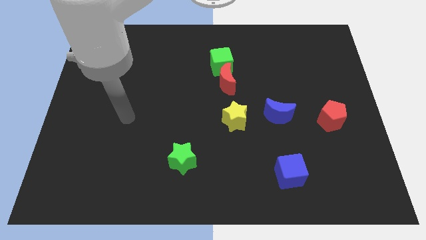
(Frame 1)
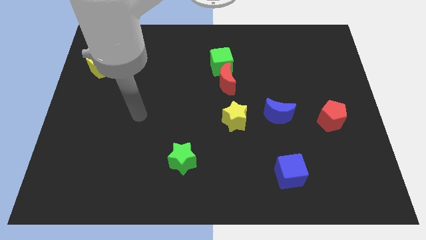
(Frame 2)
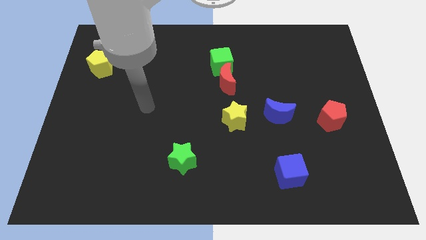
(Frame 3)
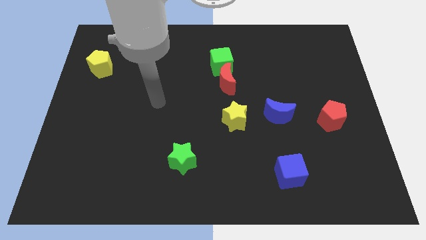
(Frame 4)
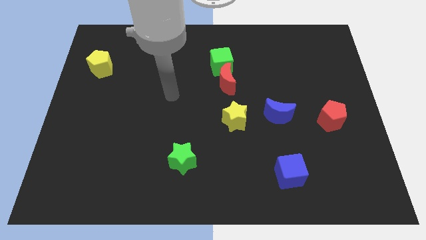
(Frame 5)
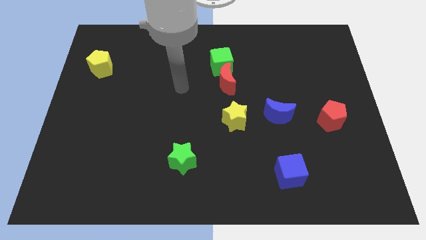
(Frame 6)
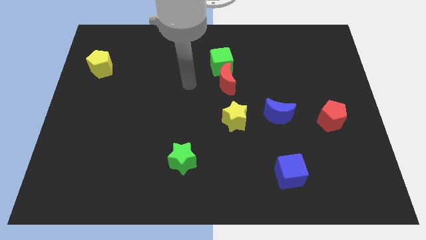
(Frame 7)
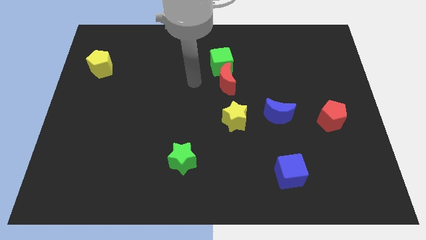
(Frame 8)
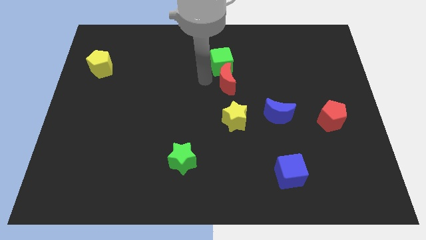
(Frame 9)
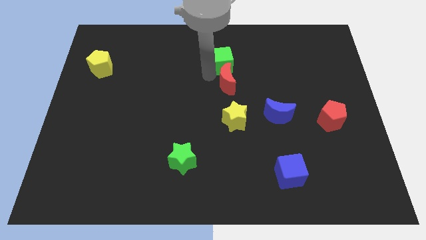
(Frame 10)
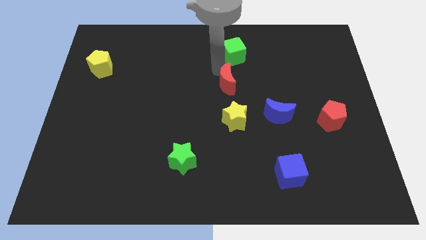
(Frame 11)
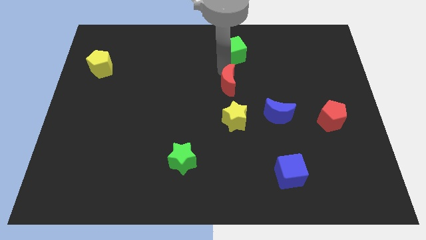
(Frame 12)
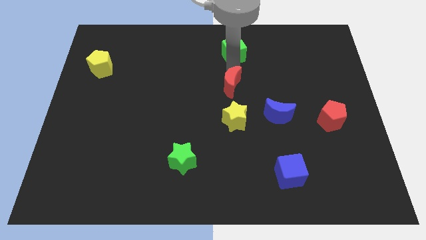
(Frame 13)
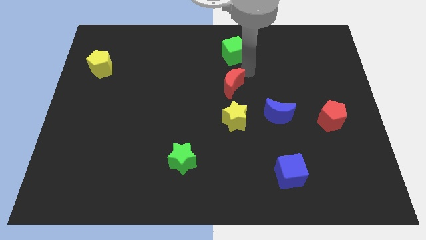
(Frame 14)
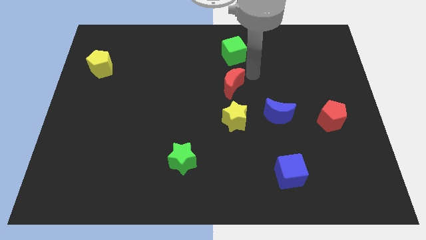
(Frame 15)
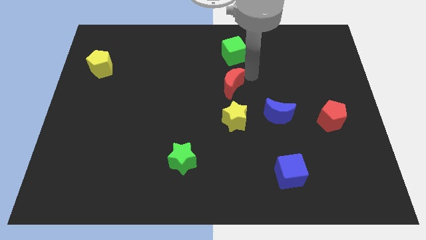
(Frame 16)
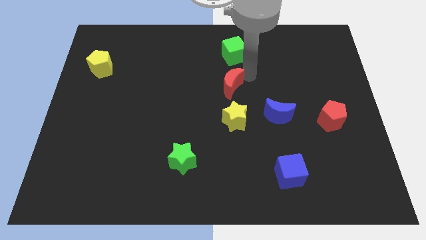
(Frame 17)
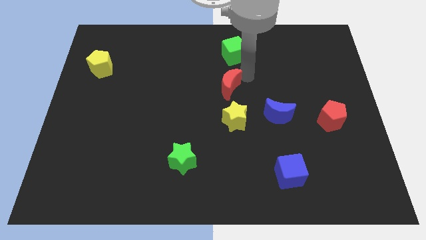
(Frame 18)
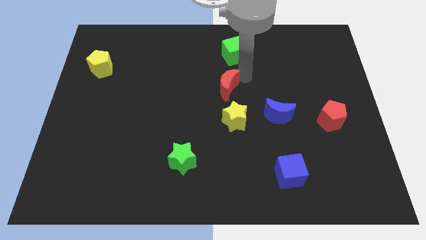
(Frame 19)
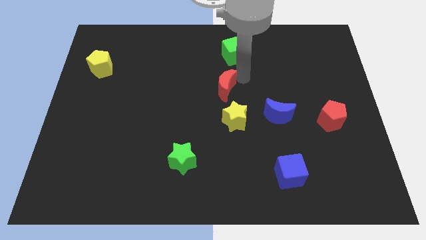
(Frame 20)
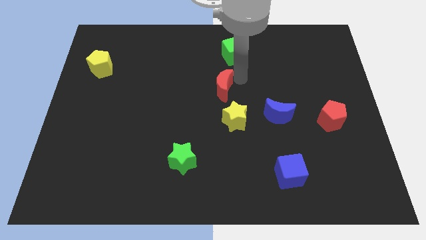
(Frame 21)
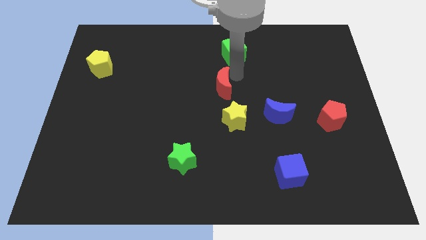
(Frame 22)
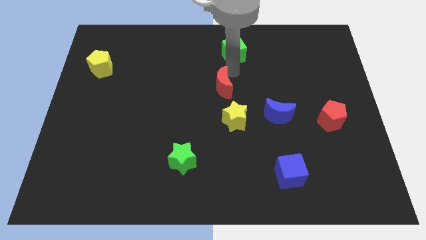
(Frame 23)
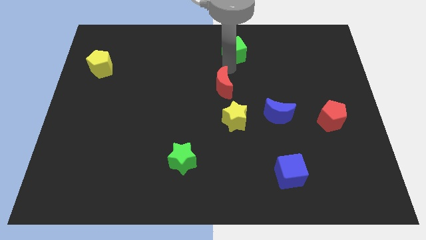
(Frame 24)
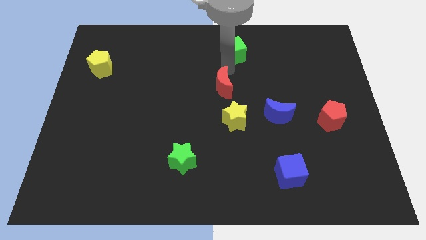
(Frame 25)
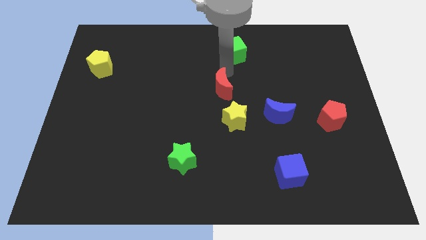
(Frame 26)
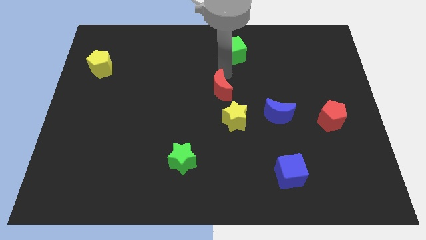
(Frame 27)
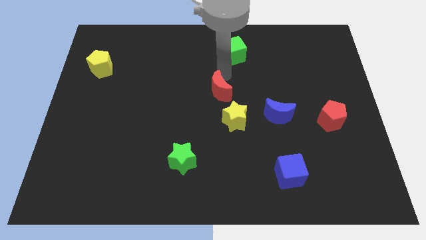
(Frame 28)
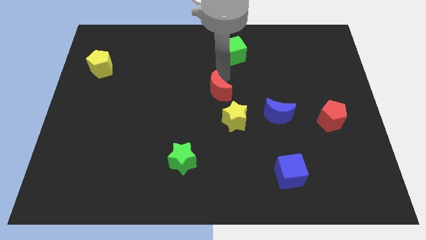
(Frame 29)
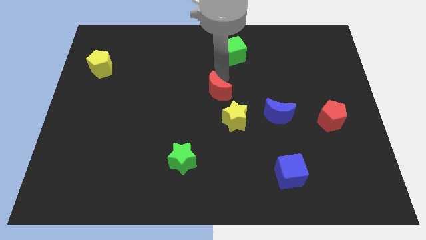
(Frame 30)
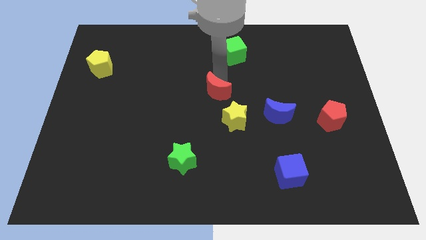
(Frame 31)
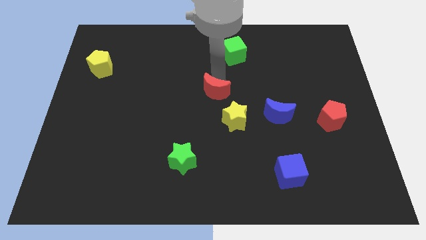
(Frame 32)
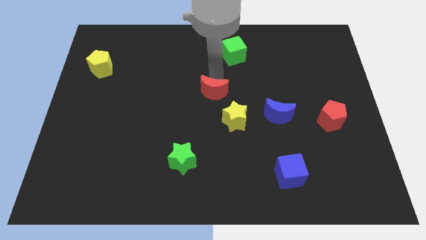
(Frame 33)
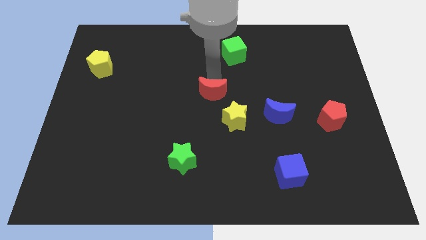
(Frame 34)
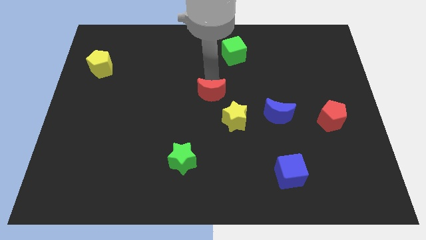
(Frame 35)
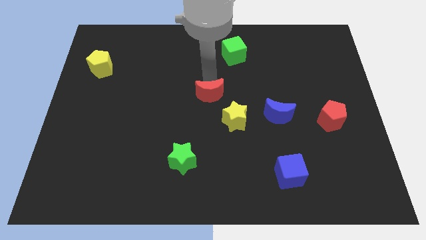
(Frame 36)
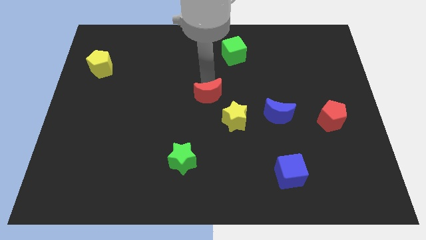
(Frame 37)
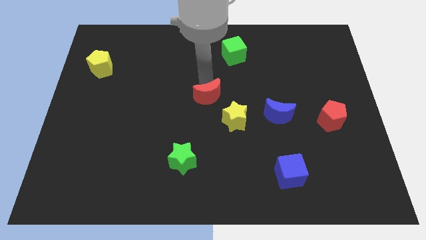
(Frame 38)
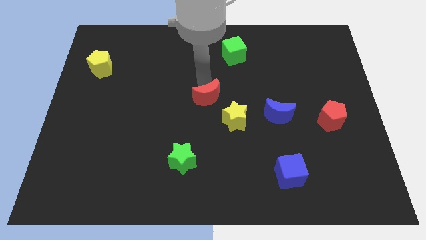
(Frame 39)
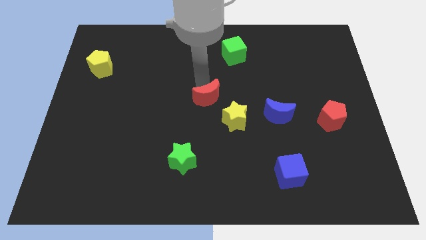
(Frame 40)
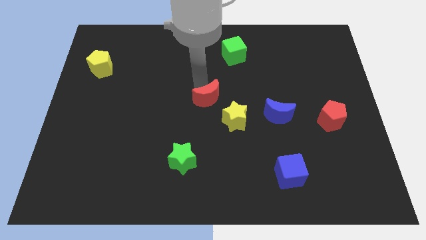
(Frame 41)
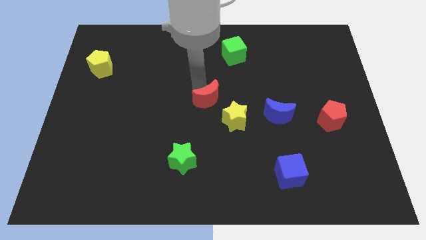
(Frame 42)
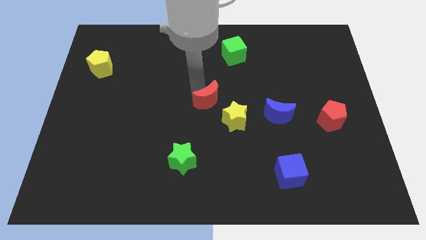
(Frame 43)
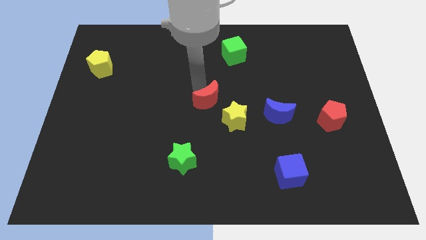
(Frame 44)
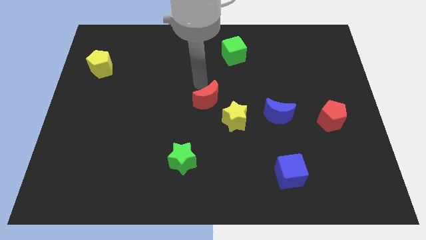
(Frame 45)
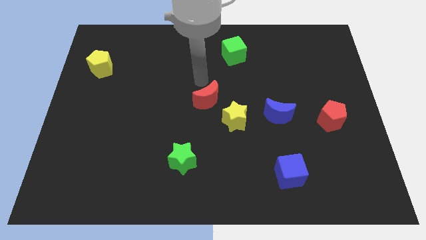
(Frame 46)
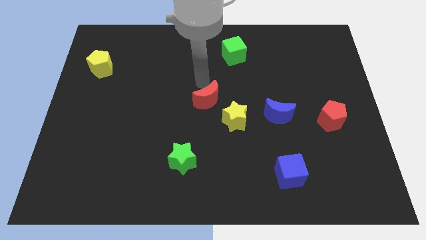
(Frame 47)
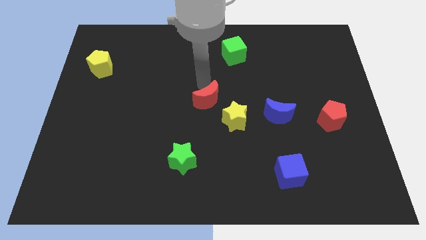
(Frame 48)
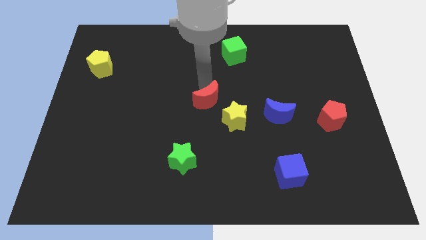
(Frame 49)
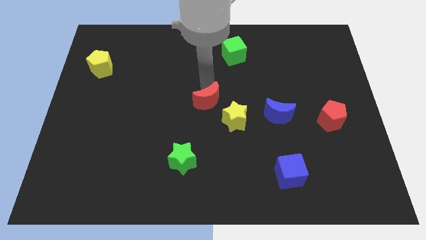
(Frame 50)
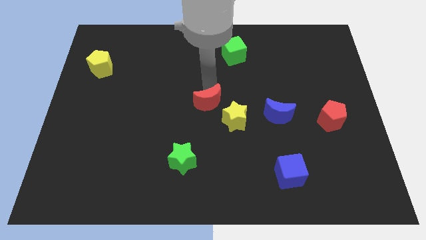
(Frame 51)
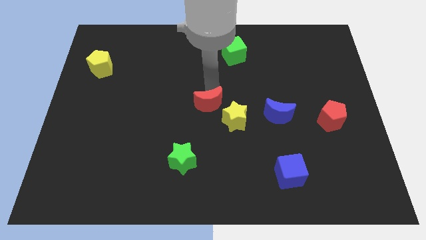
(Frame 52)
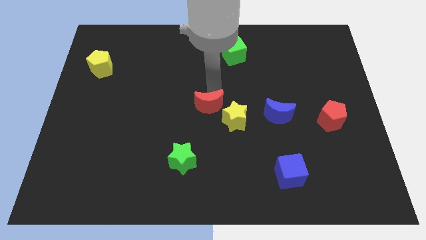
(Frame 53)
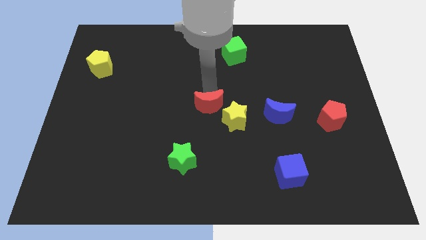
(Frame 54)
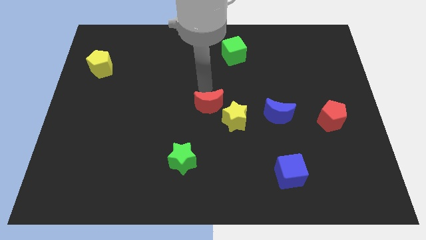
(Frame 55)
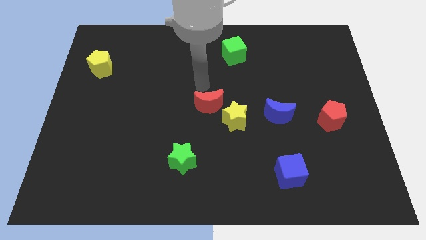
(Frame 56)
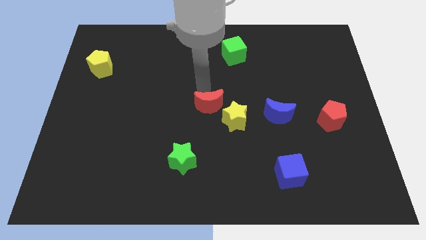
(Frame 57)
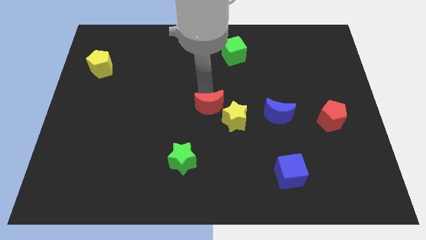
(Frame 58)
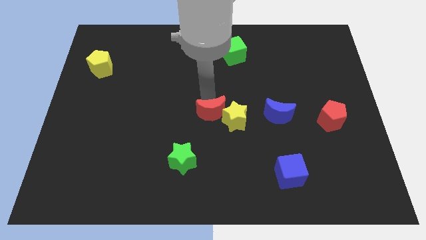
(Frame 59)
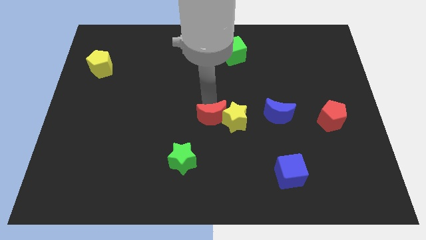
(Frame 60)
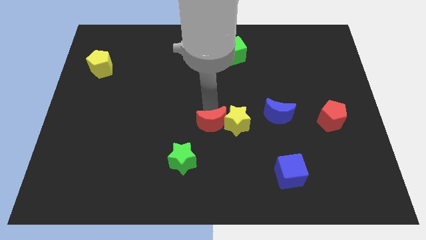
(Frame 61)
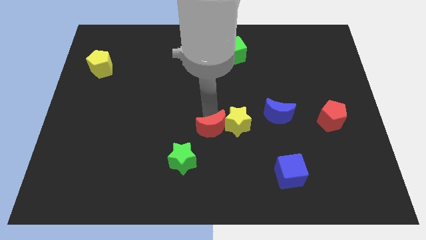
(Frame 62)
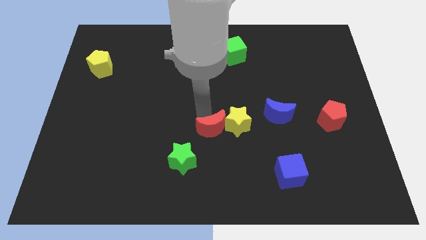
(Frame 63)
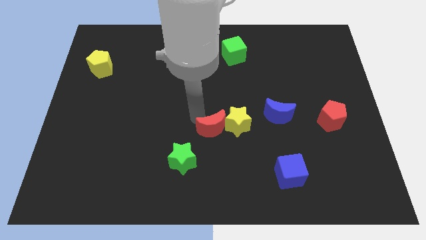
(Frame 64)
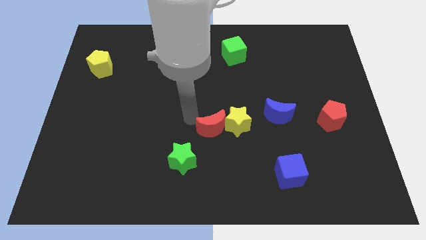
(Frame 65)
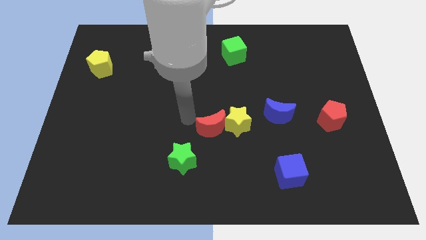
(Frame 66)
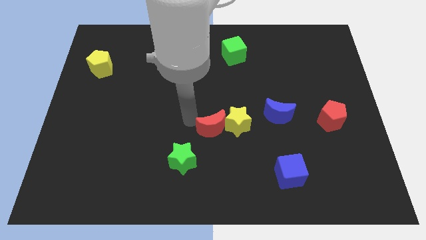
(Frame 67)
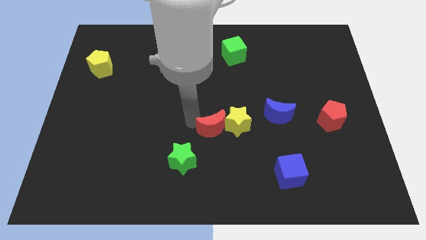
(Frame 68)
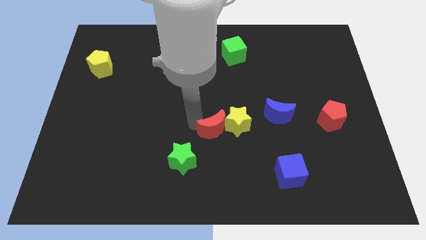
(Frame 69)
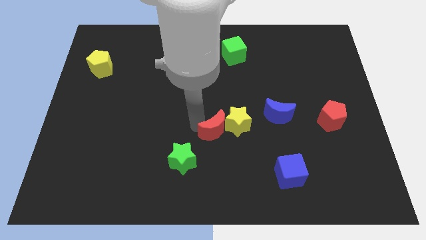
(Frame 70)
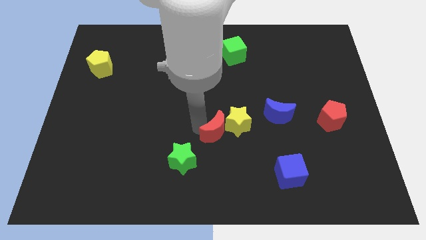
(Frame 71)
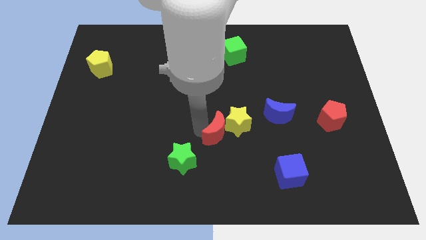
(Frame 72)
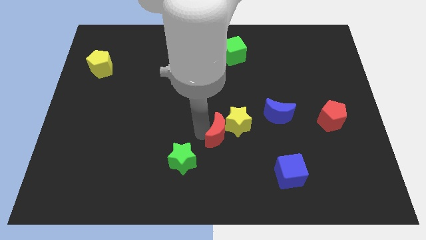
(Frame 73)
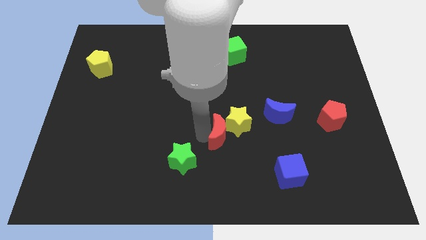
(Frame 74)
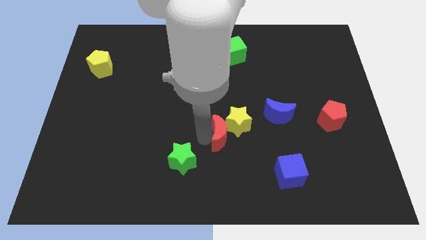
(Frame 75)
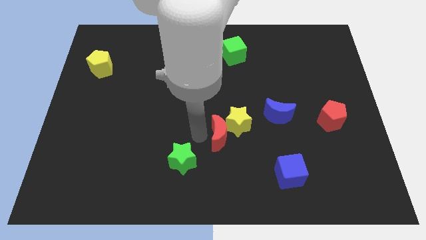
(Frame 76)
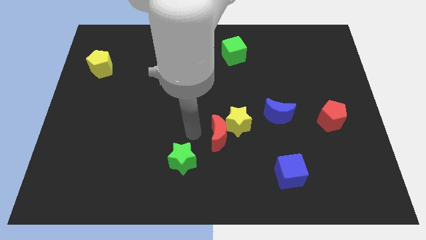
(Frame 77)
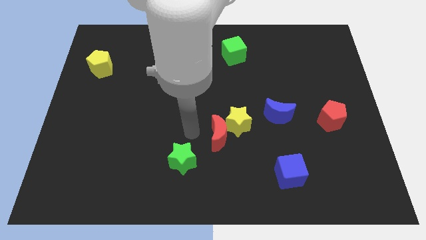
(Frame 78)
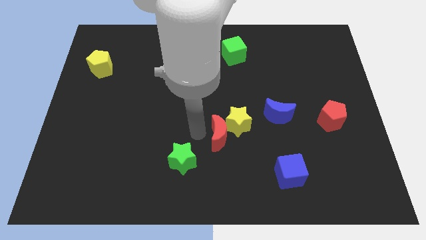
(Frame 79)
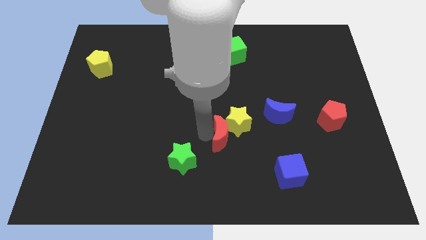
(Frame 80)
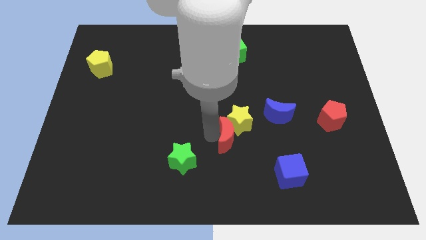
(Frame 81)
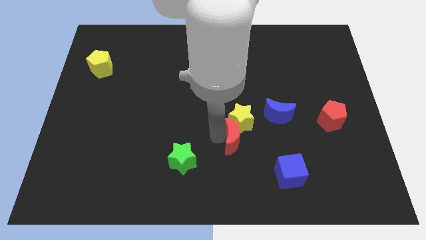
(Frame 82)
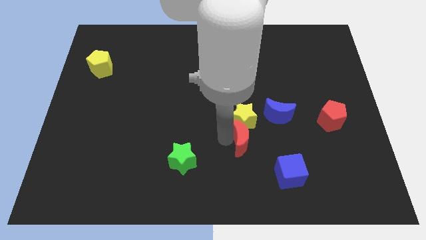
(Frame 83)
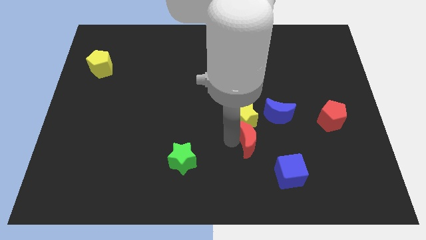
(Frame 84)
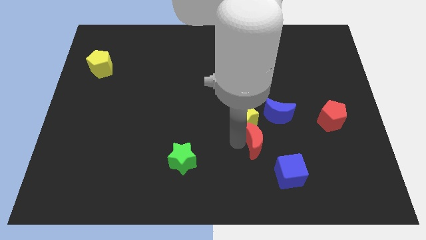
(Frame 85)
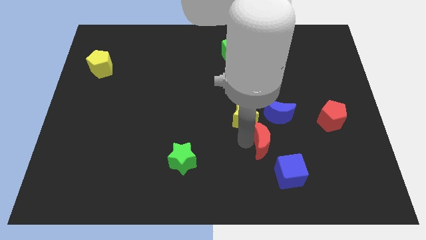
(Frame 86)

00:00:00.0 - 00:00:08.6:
slide the red moon below the blue moon
